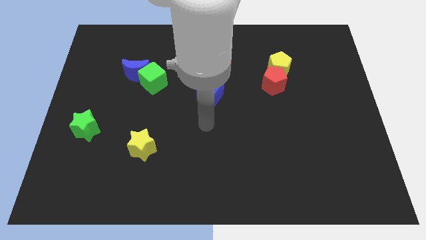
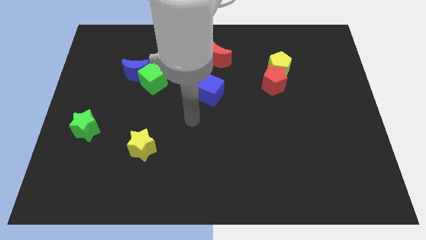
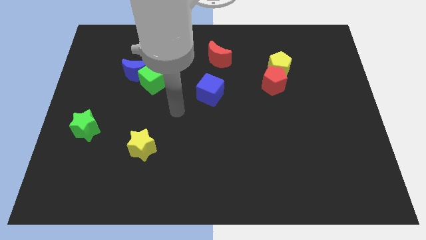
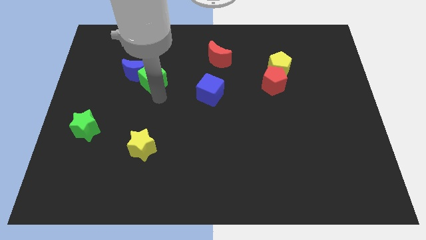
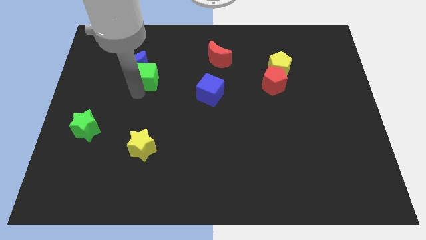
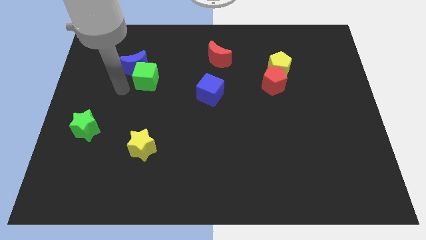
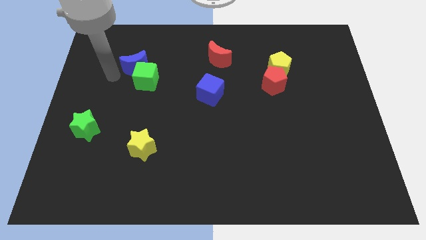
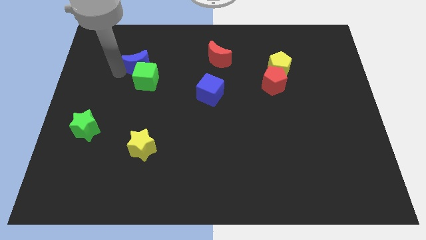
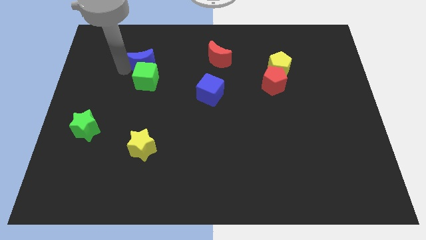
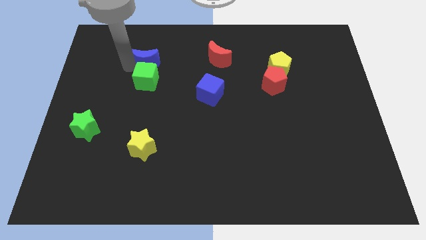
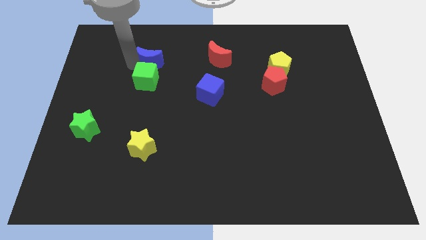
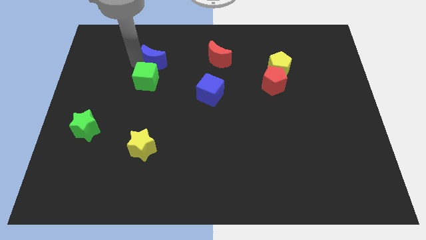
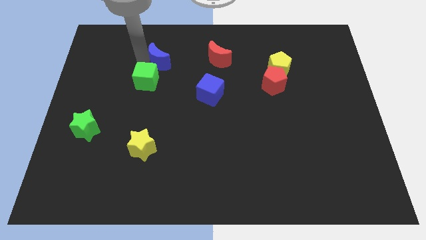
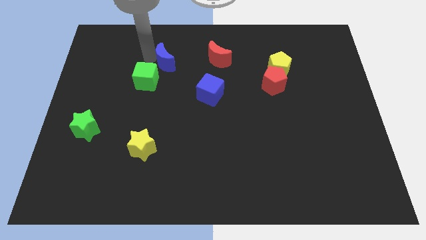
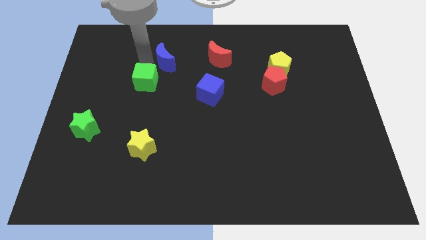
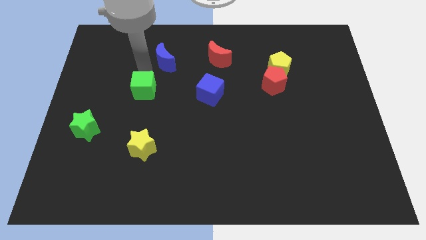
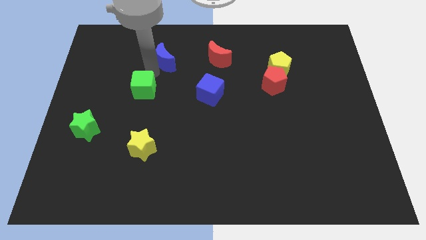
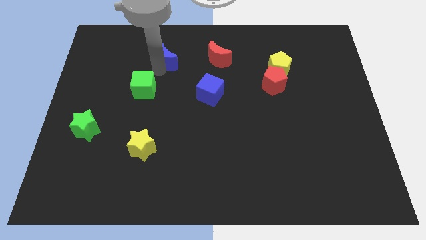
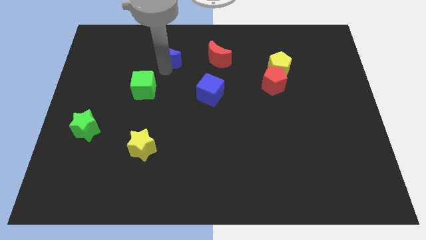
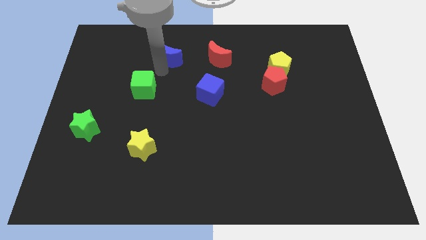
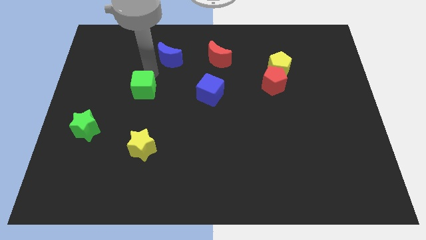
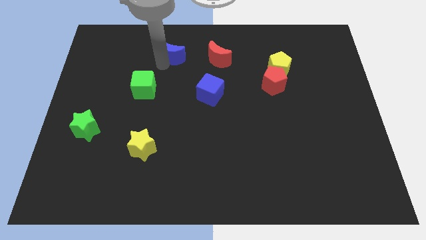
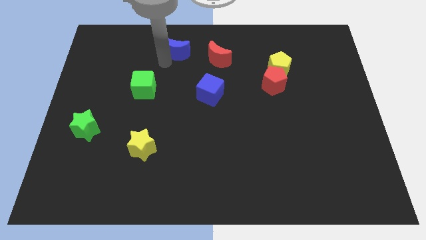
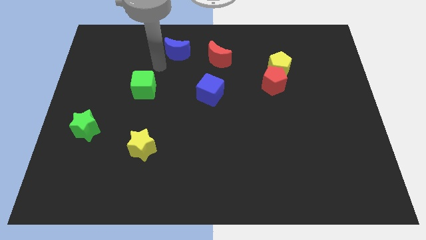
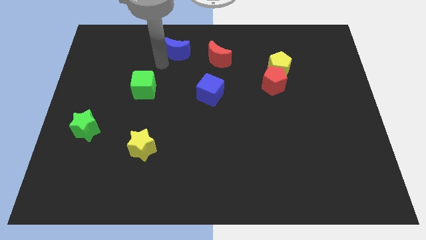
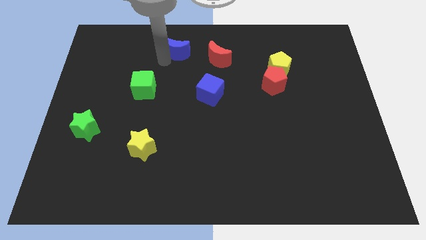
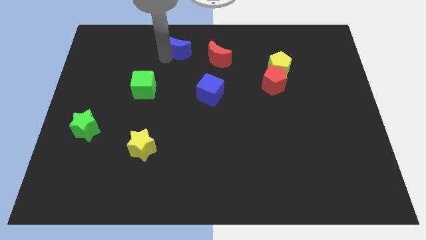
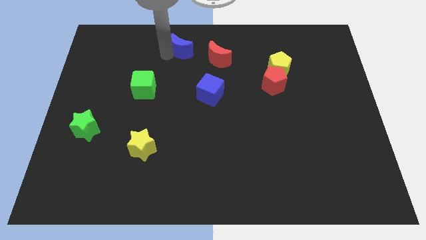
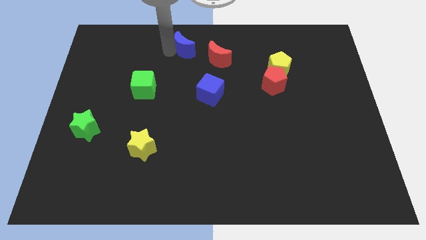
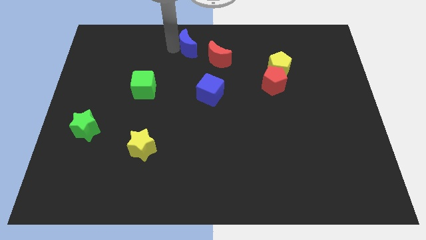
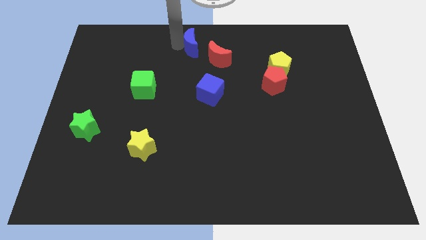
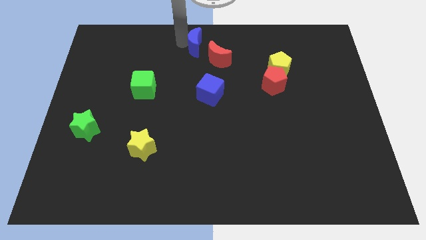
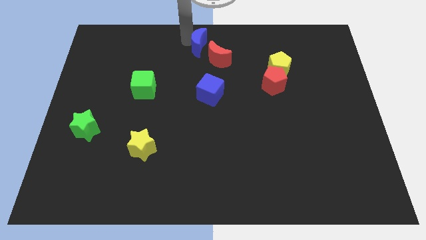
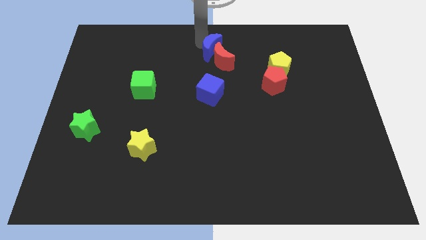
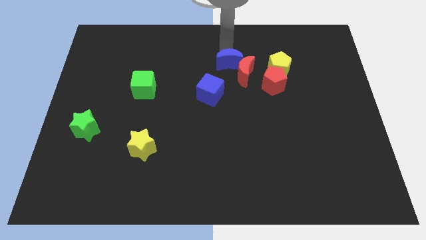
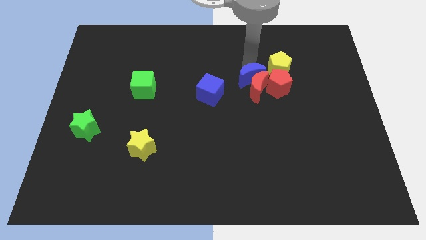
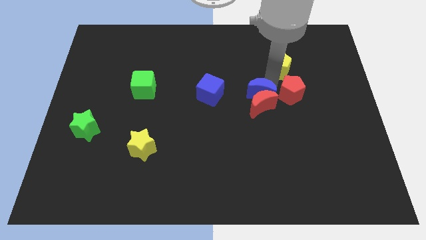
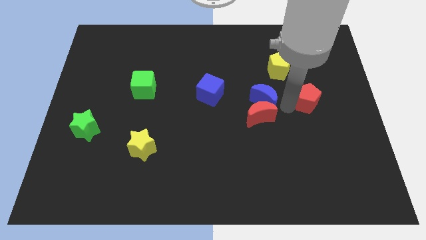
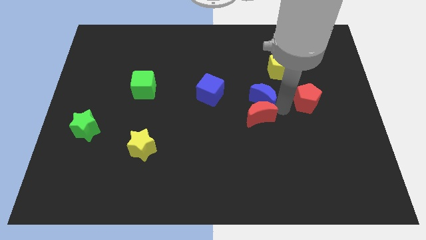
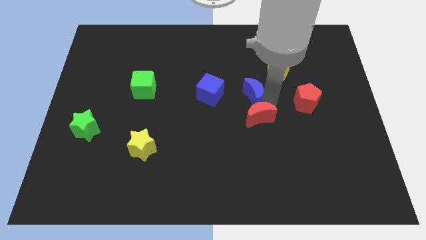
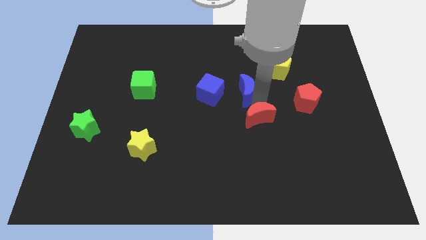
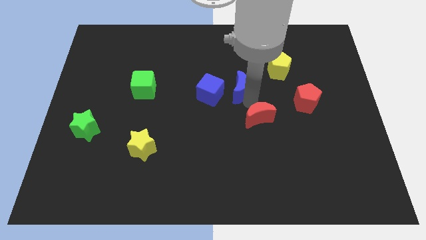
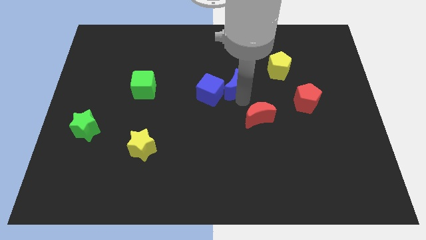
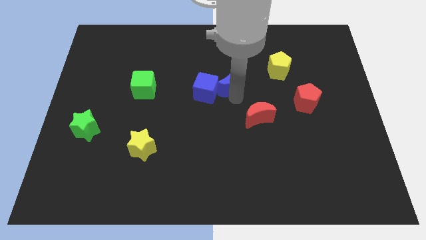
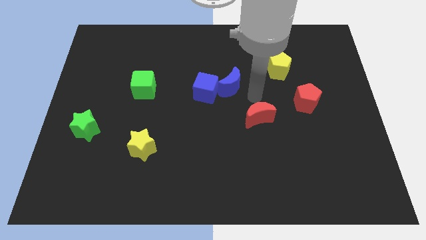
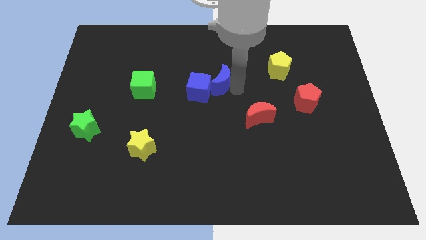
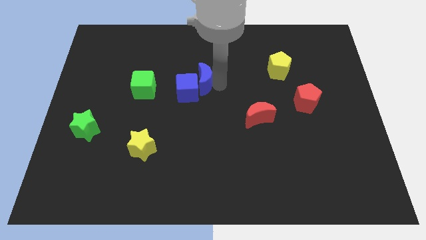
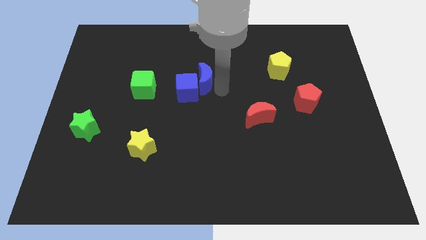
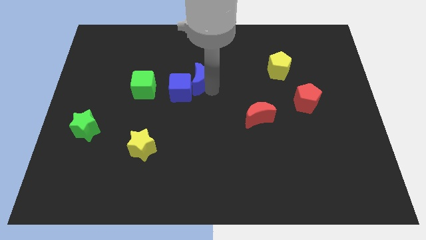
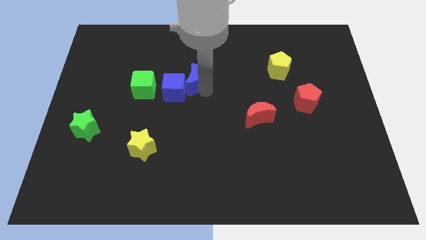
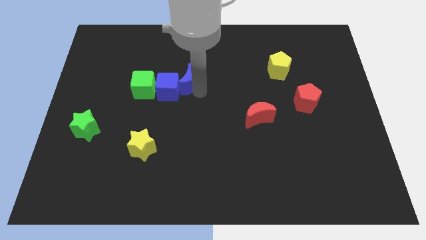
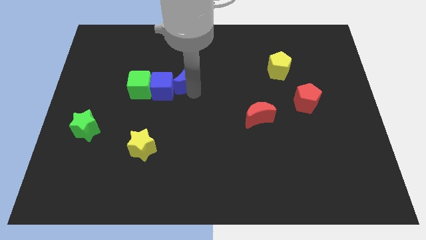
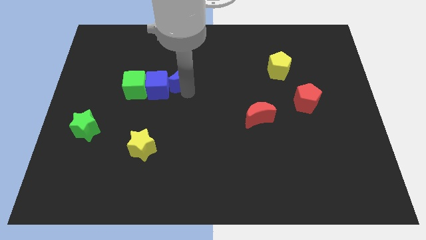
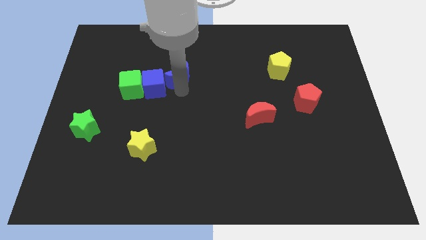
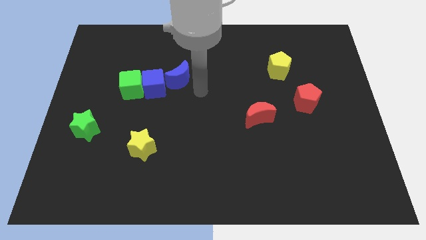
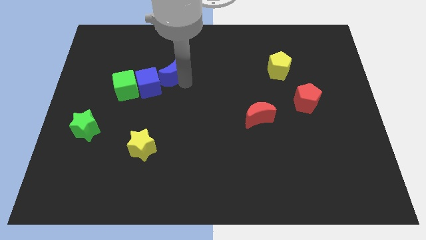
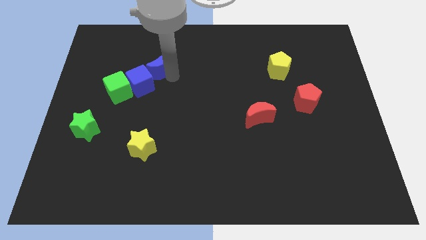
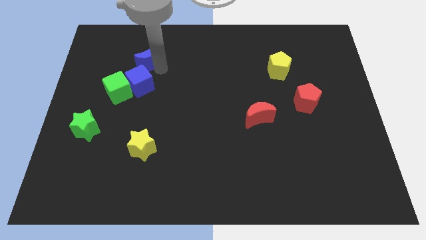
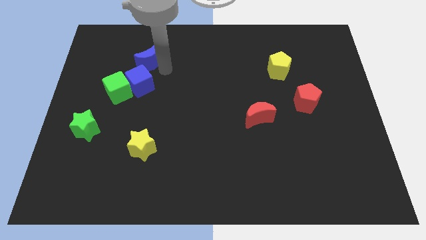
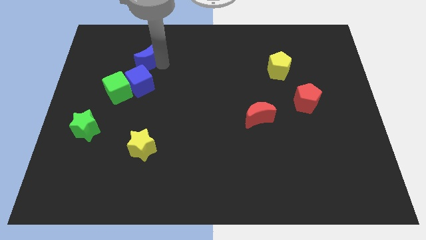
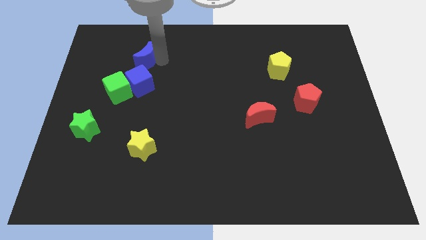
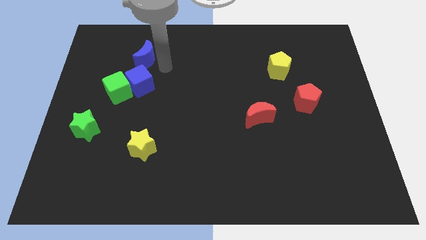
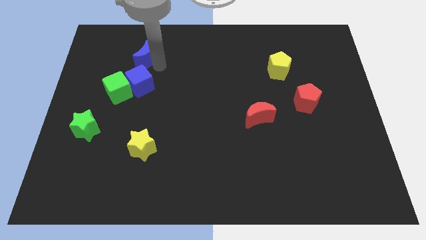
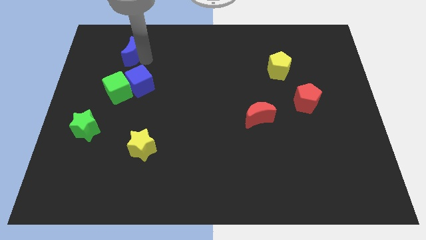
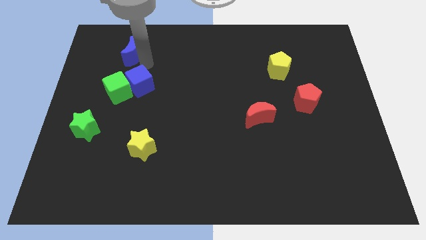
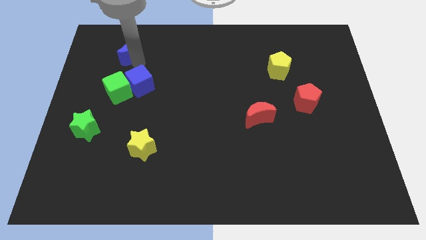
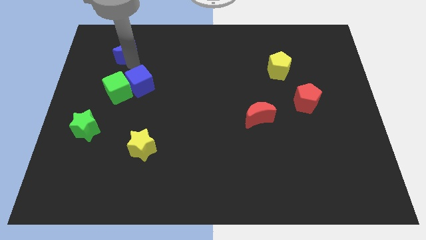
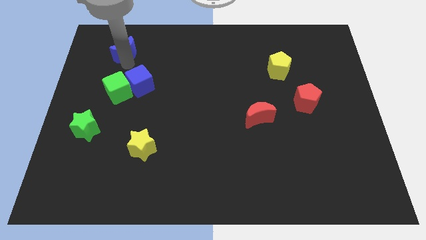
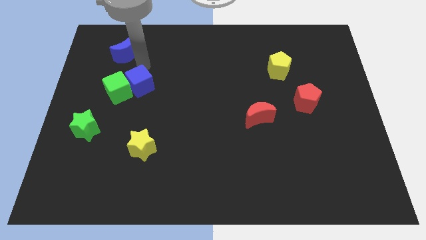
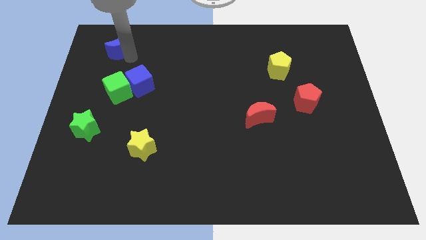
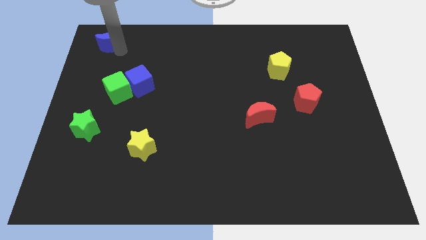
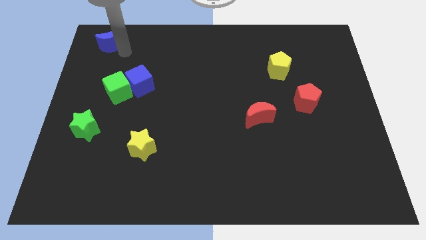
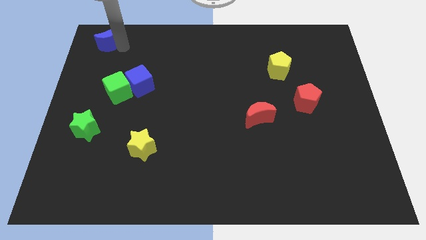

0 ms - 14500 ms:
put the blue moon to the top left of the board

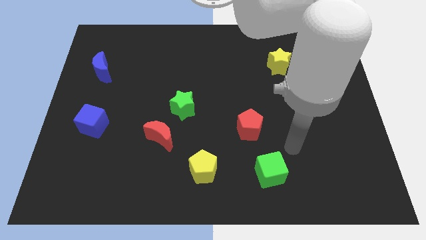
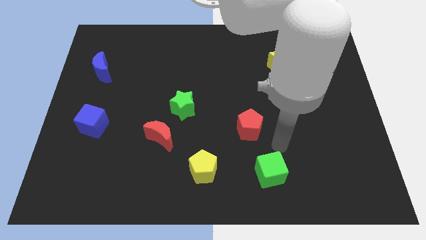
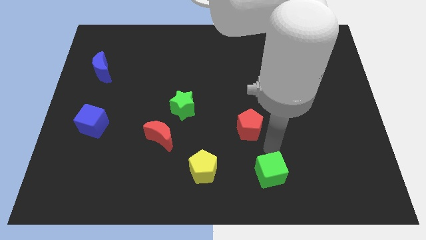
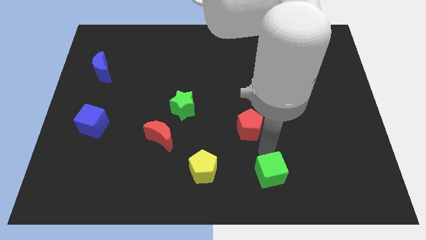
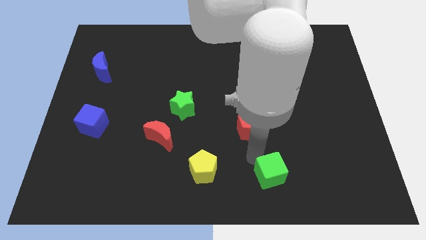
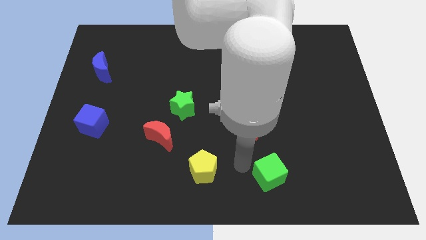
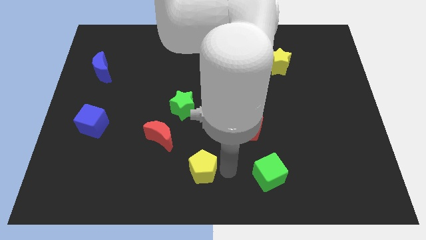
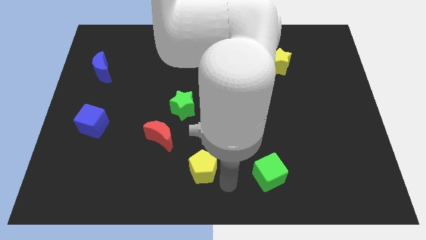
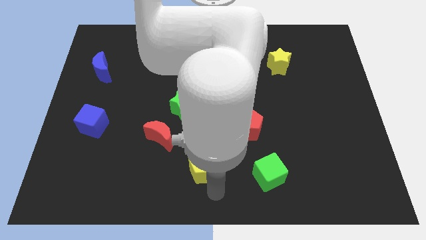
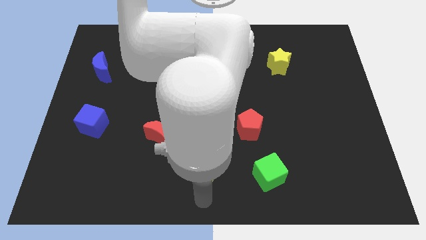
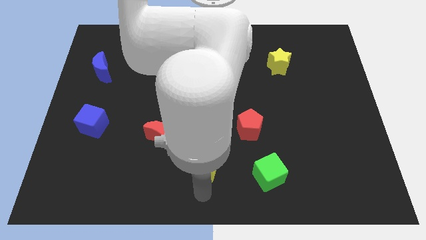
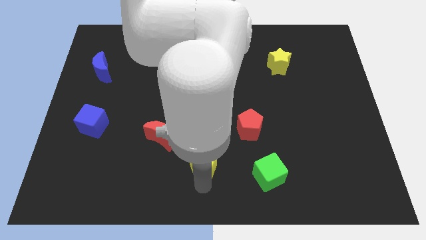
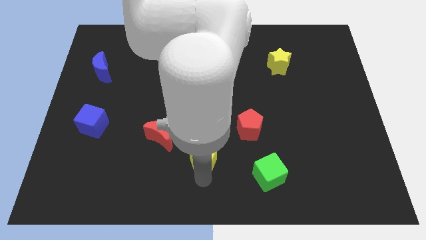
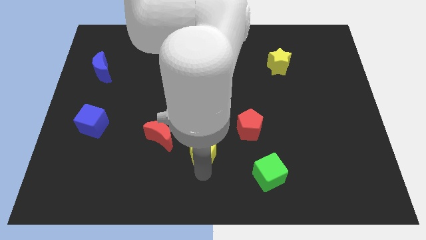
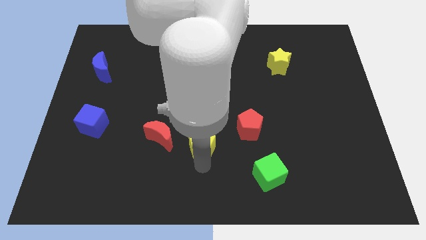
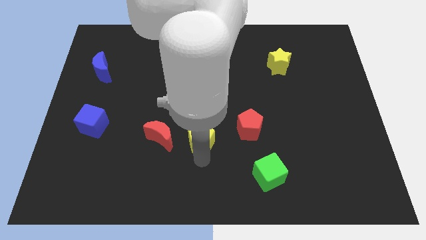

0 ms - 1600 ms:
slide the yellow pentagon to the middle of the board
